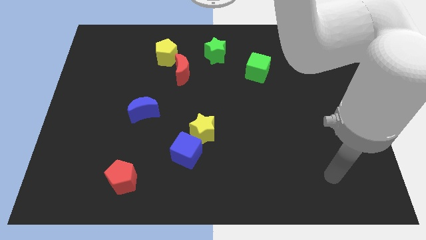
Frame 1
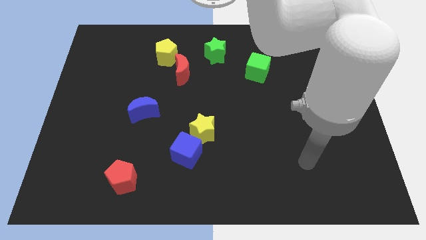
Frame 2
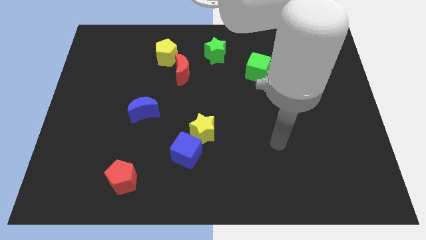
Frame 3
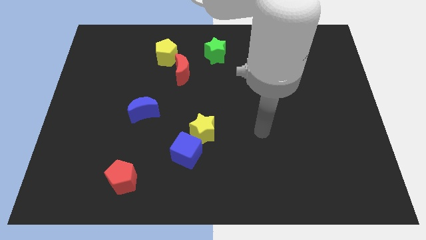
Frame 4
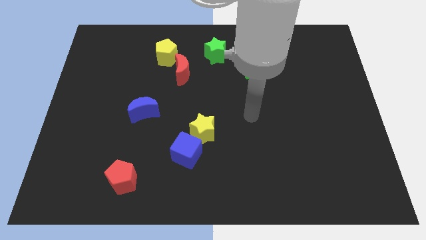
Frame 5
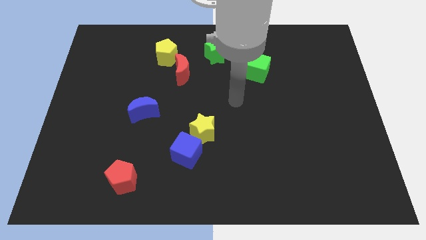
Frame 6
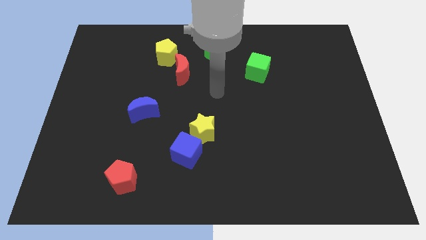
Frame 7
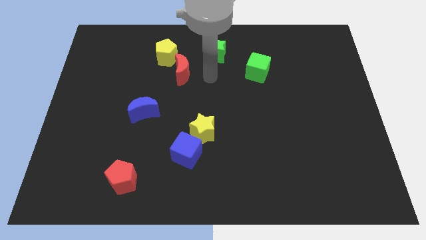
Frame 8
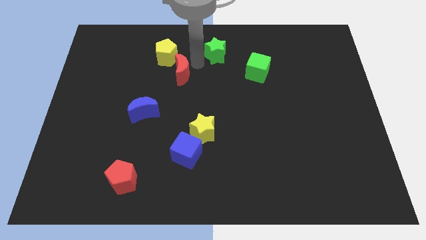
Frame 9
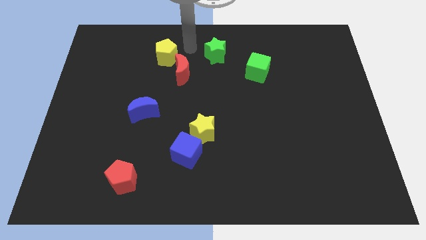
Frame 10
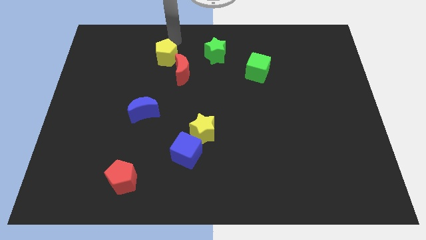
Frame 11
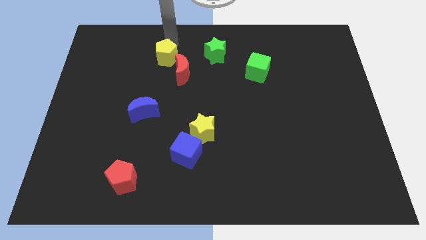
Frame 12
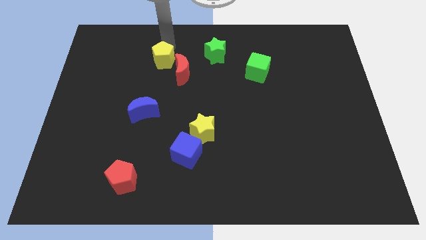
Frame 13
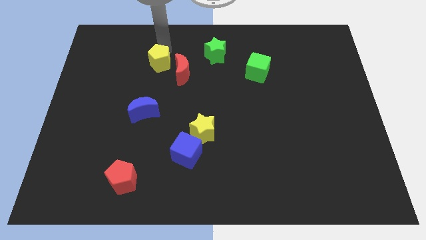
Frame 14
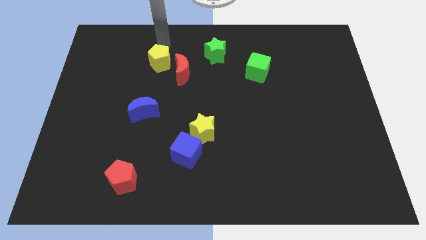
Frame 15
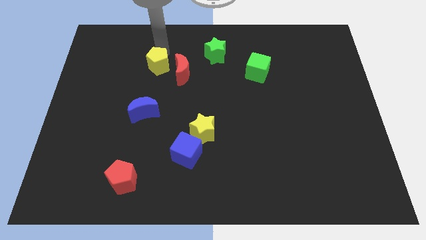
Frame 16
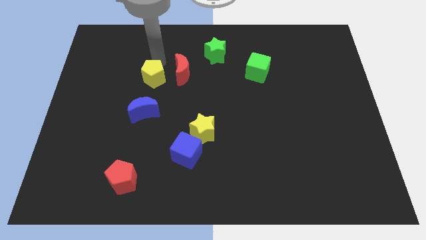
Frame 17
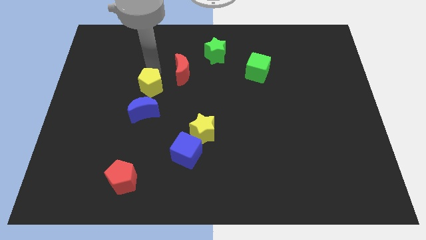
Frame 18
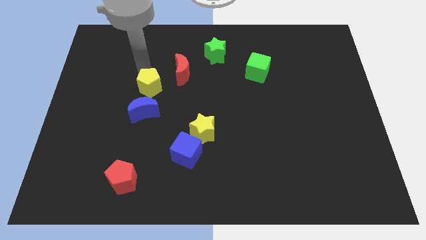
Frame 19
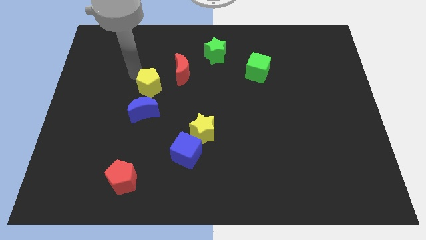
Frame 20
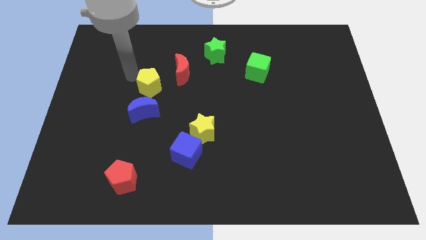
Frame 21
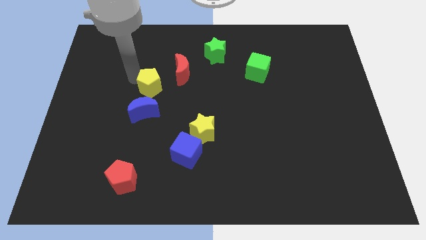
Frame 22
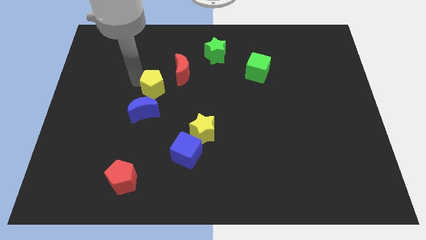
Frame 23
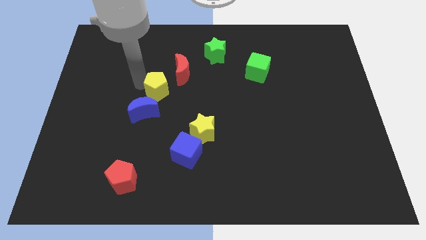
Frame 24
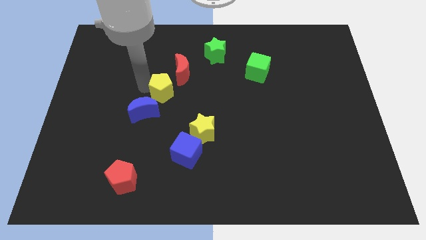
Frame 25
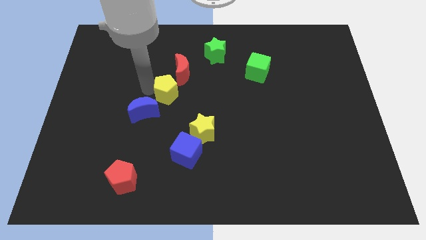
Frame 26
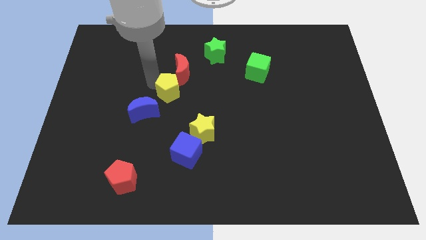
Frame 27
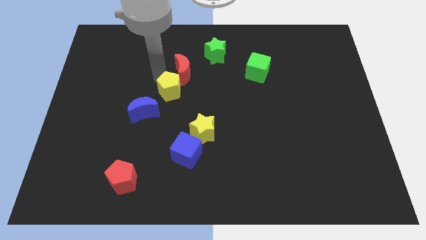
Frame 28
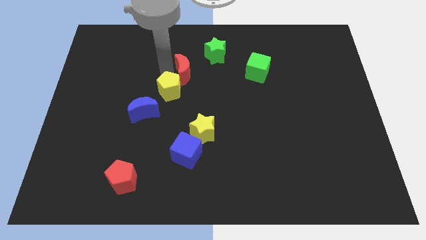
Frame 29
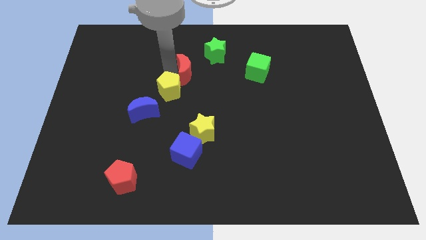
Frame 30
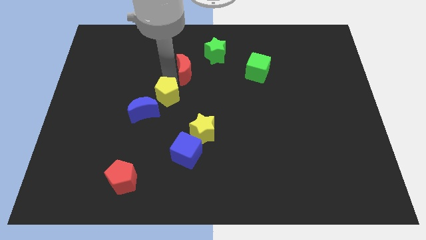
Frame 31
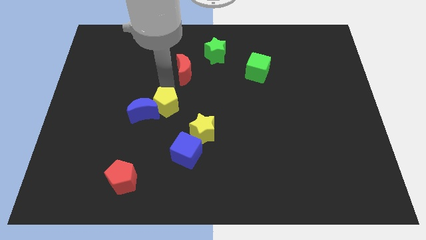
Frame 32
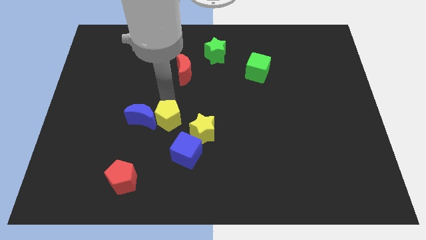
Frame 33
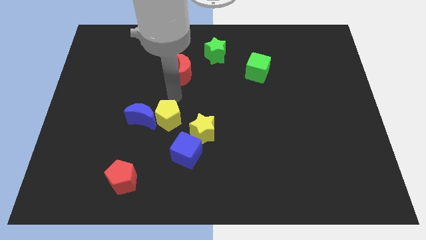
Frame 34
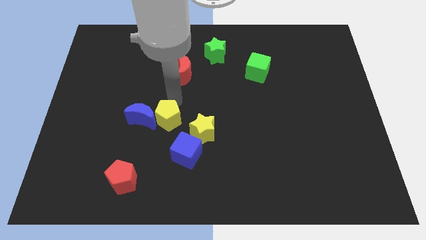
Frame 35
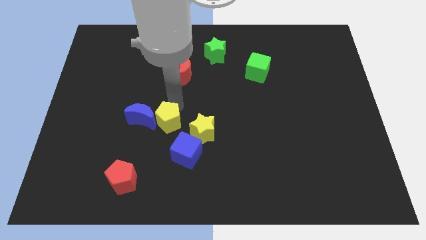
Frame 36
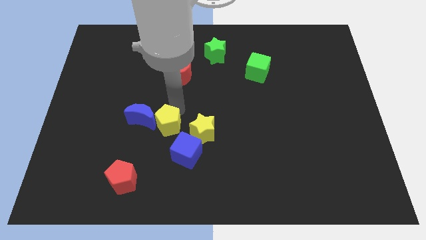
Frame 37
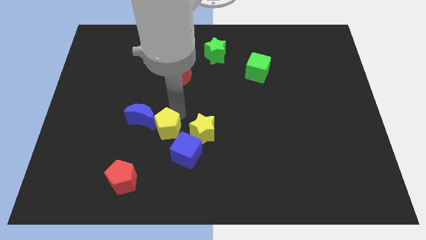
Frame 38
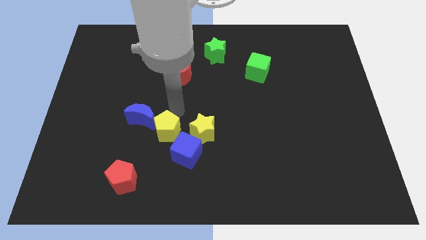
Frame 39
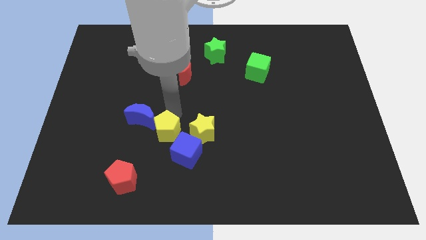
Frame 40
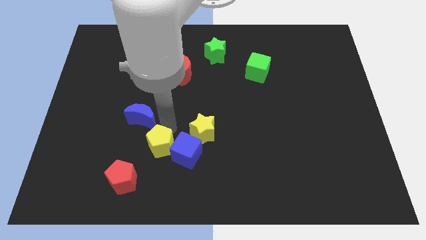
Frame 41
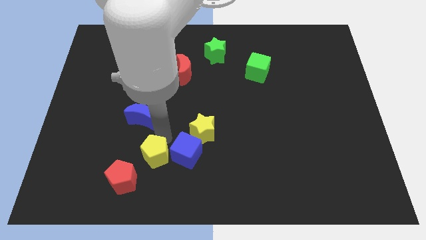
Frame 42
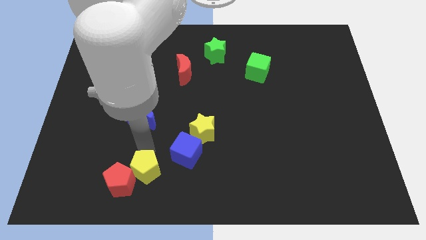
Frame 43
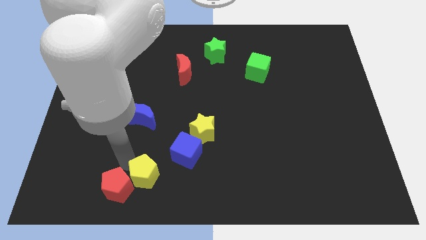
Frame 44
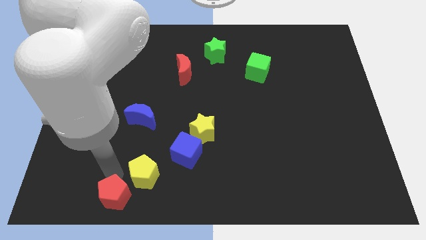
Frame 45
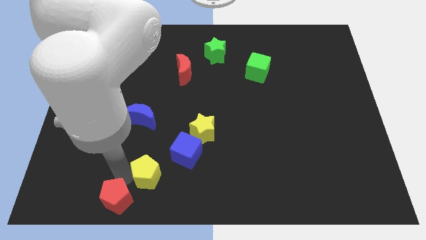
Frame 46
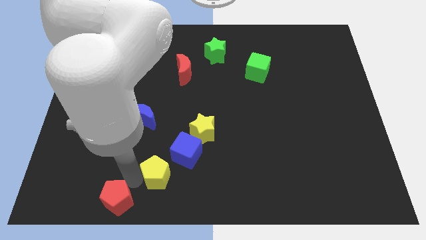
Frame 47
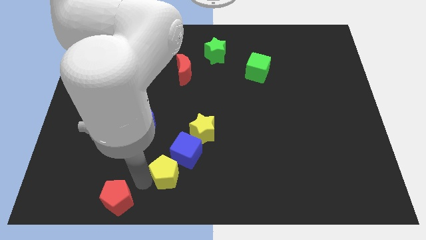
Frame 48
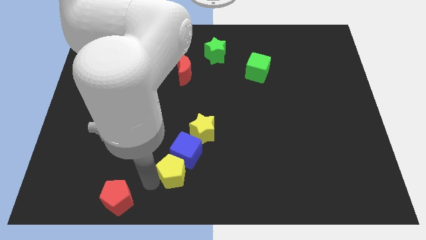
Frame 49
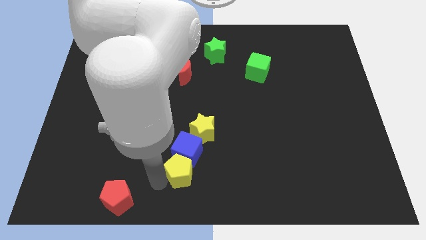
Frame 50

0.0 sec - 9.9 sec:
push the yellow pentagon below the yellow star

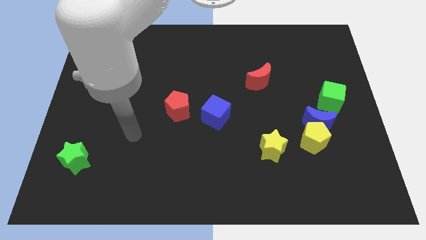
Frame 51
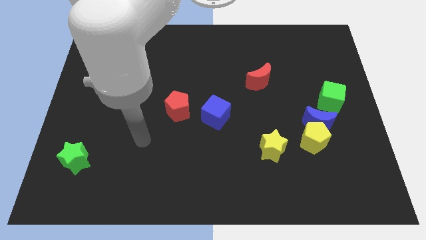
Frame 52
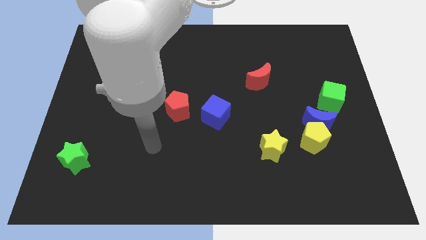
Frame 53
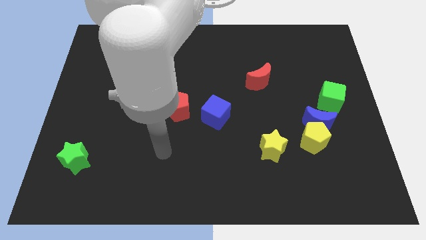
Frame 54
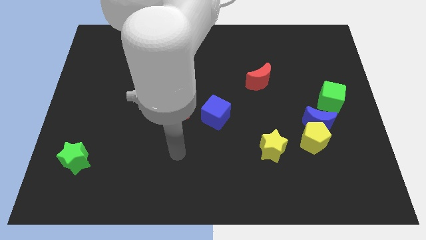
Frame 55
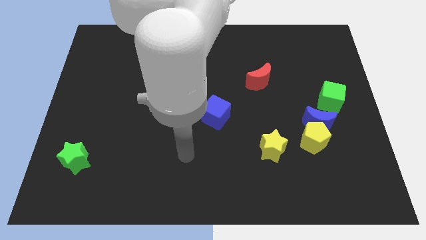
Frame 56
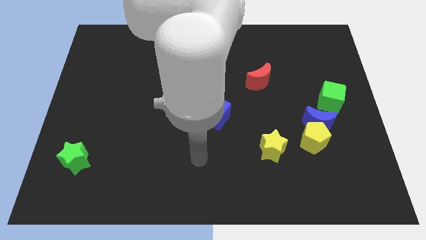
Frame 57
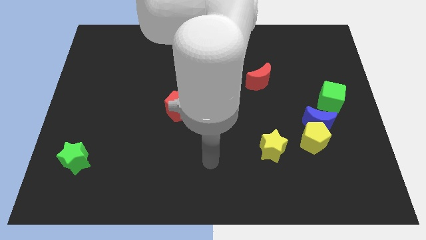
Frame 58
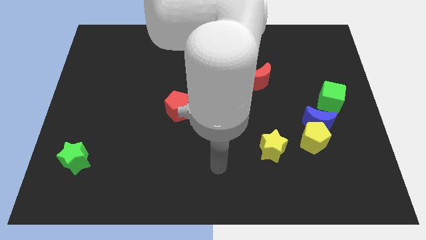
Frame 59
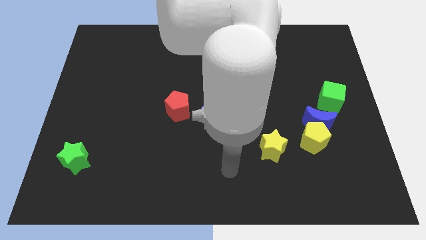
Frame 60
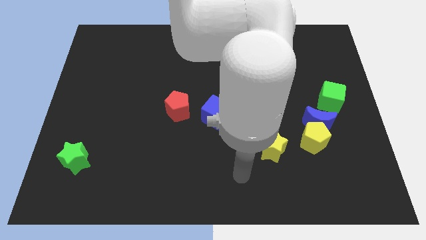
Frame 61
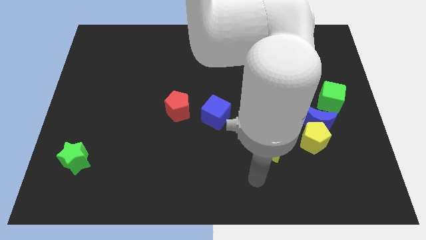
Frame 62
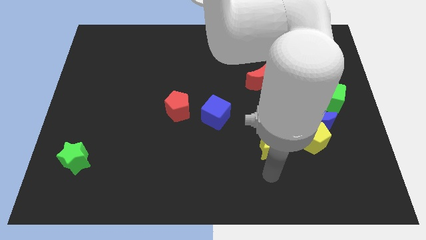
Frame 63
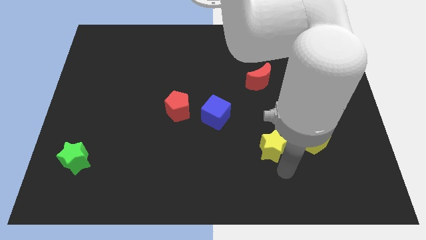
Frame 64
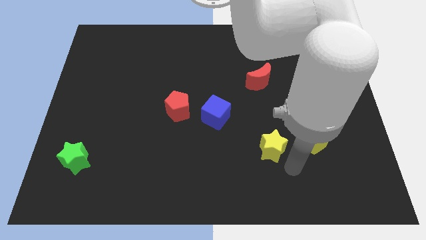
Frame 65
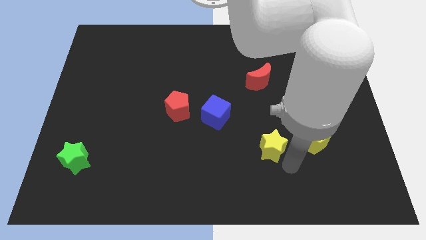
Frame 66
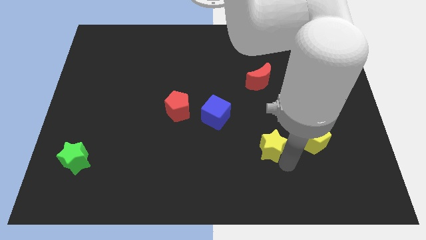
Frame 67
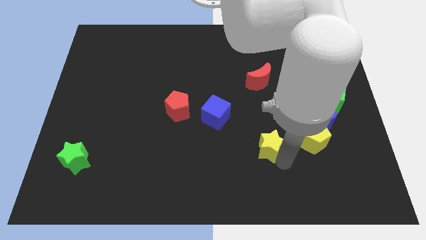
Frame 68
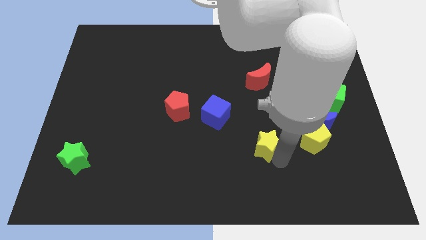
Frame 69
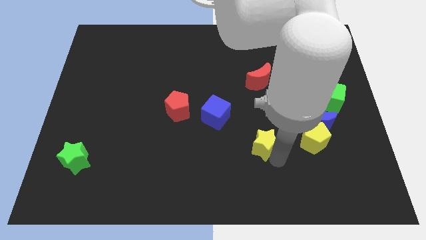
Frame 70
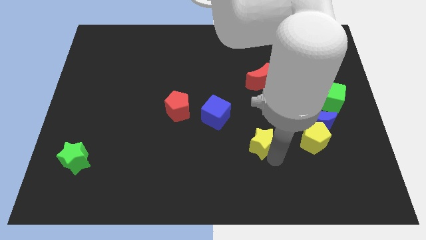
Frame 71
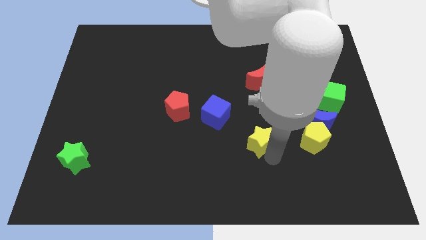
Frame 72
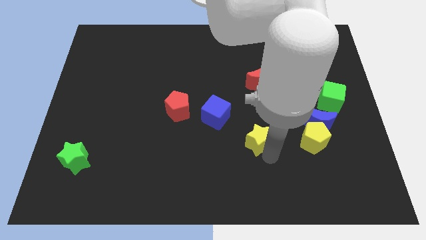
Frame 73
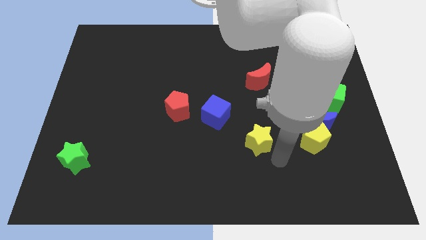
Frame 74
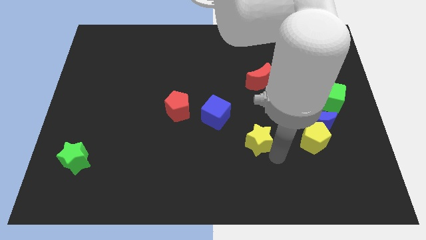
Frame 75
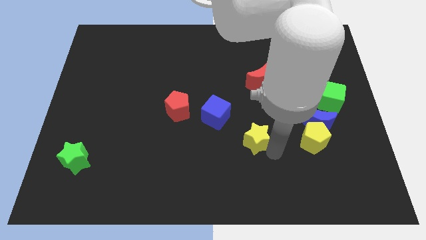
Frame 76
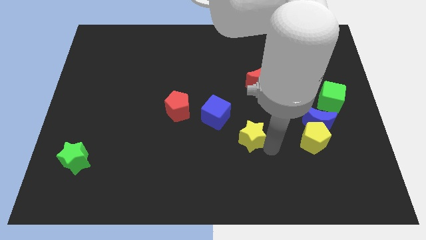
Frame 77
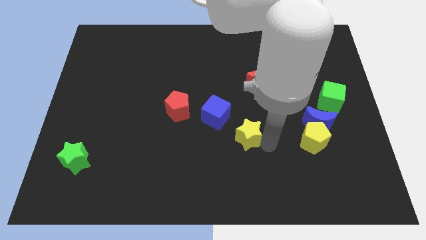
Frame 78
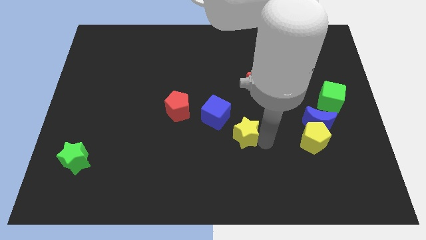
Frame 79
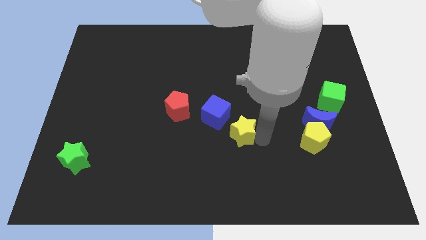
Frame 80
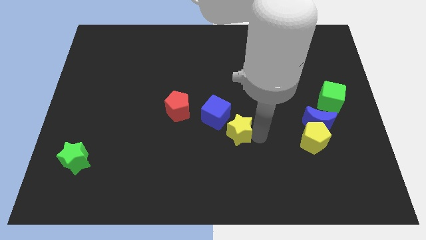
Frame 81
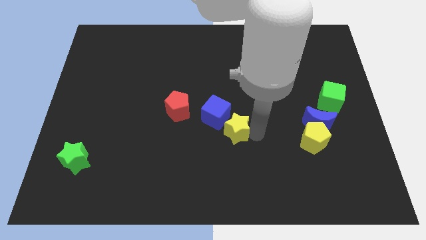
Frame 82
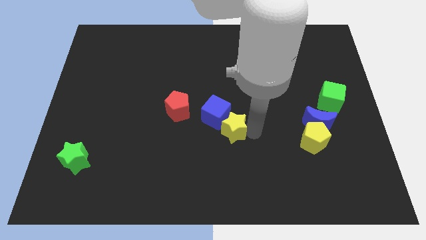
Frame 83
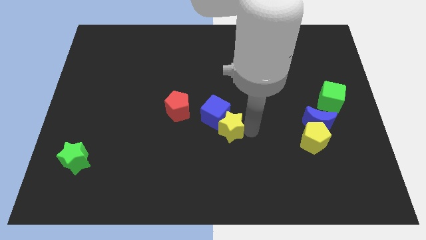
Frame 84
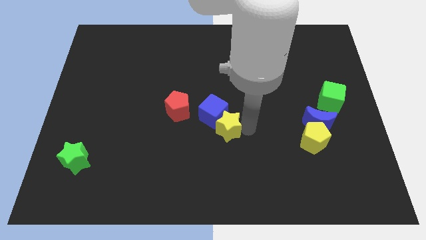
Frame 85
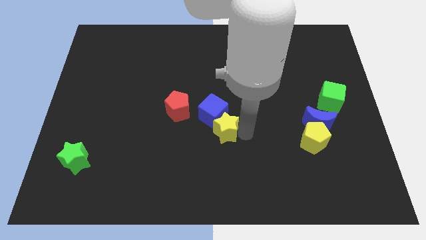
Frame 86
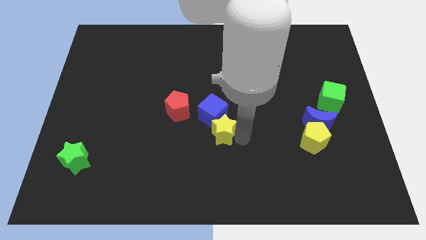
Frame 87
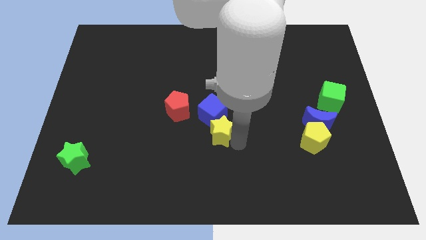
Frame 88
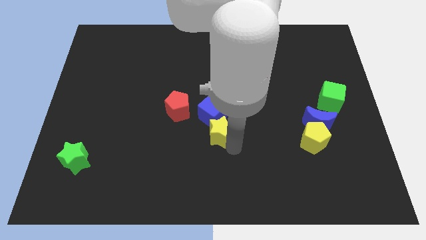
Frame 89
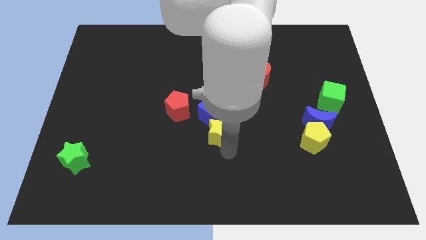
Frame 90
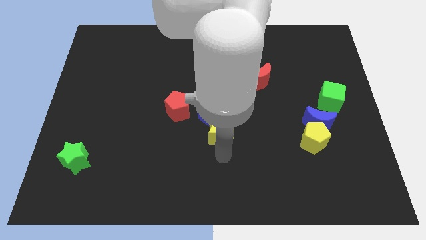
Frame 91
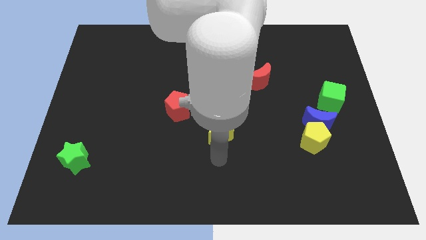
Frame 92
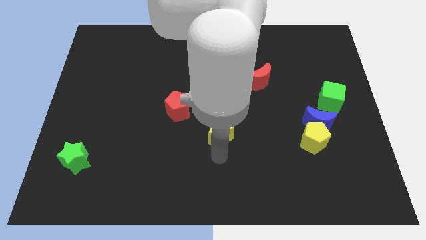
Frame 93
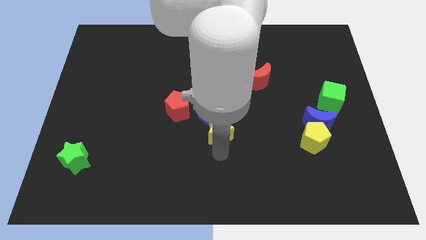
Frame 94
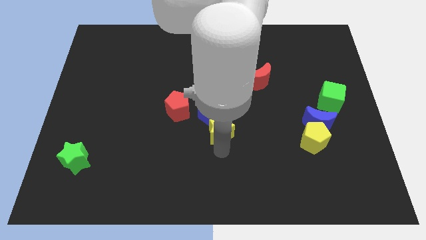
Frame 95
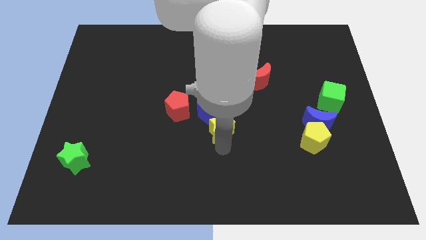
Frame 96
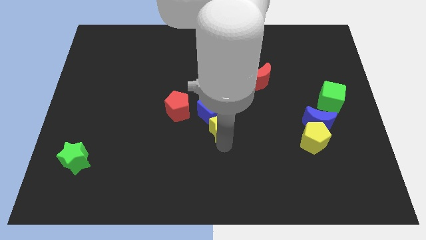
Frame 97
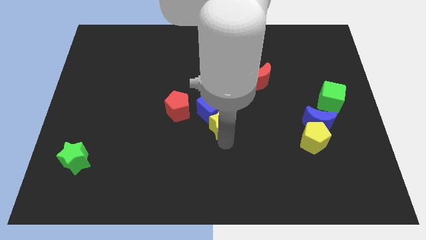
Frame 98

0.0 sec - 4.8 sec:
push the yellow star right of the red pentagon
